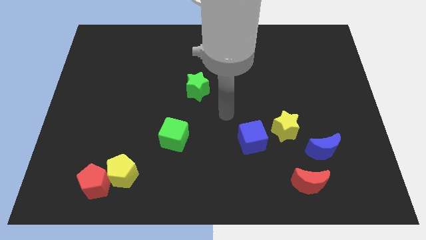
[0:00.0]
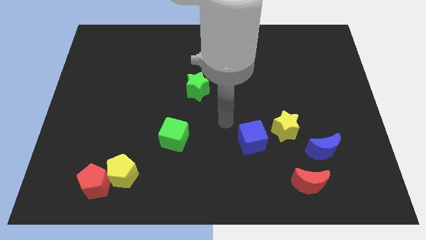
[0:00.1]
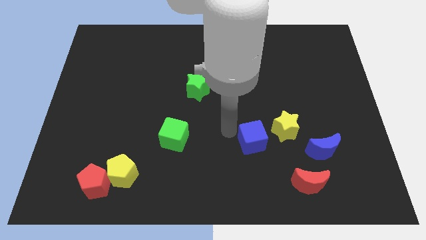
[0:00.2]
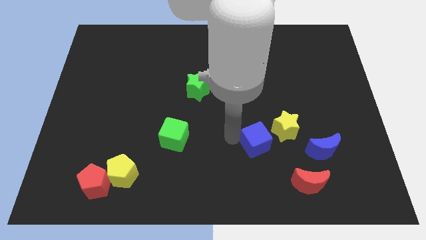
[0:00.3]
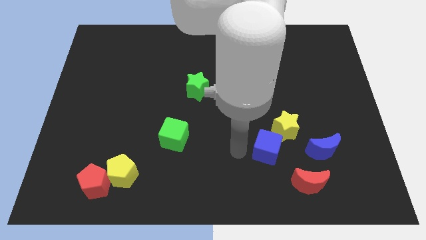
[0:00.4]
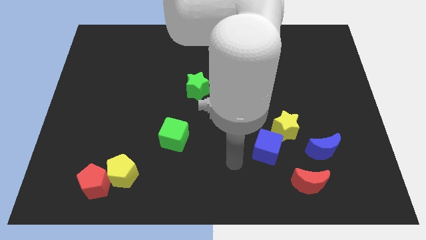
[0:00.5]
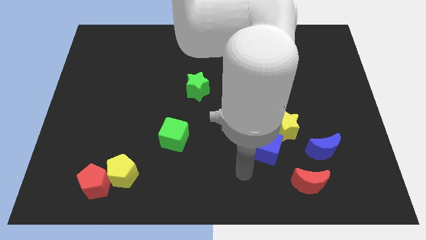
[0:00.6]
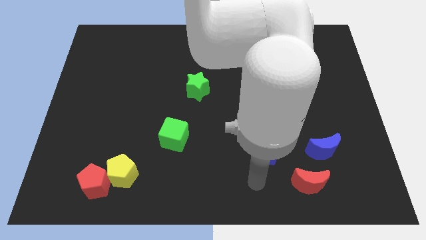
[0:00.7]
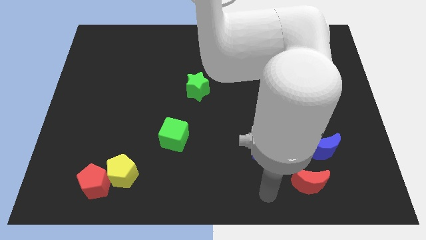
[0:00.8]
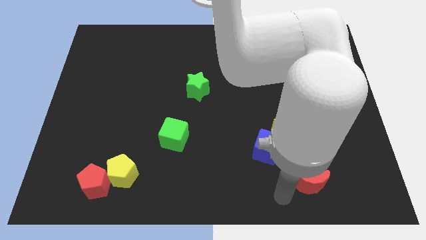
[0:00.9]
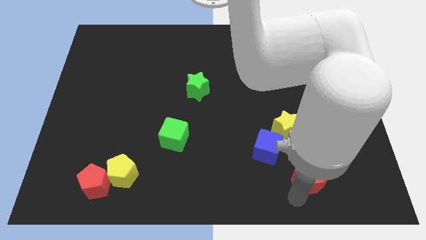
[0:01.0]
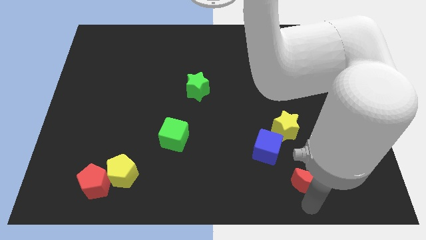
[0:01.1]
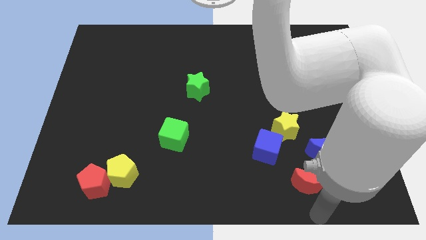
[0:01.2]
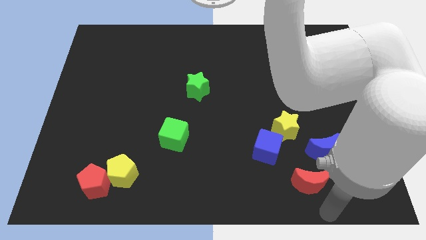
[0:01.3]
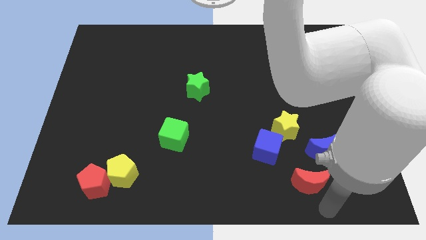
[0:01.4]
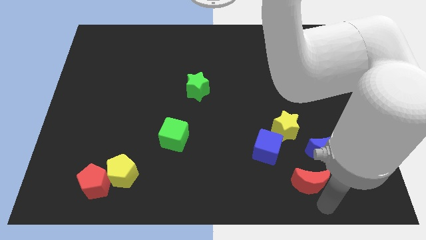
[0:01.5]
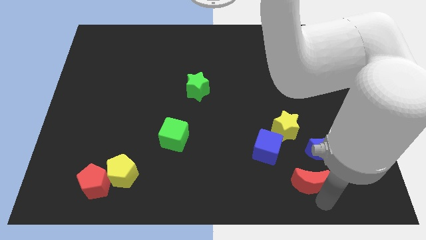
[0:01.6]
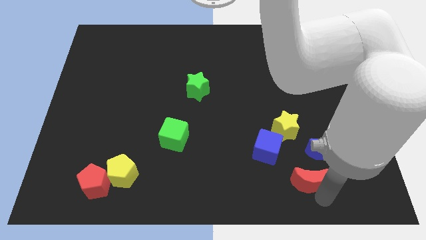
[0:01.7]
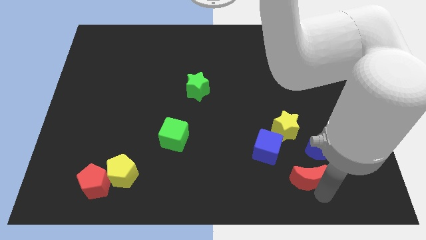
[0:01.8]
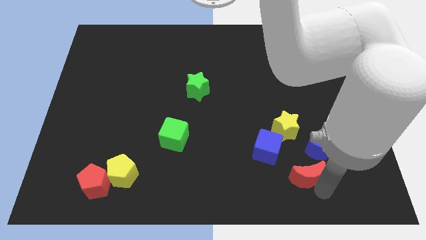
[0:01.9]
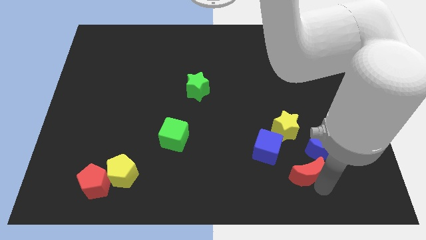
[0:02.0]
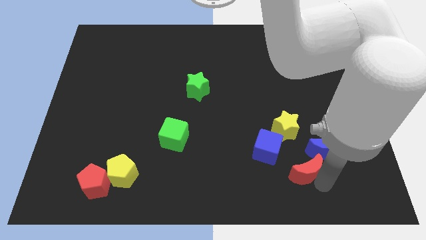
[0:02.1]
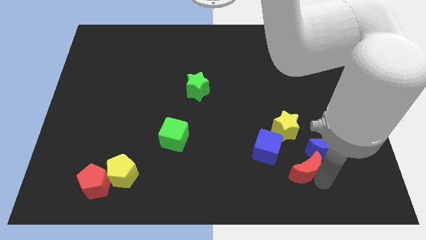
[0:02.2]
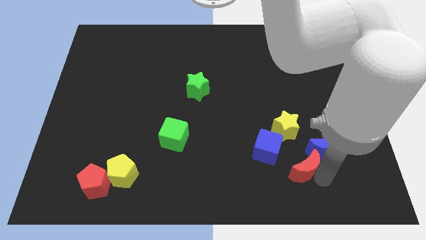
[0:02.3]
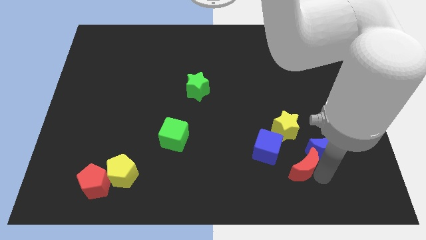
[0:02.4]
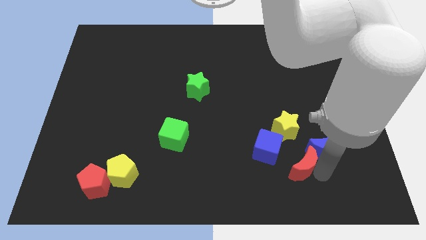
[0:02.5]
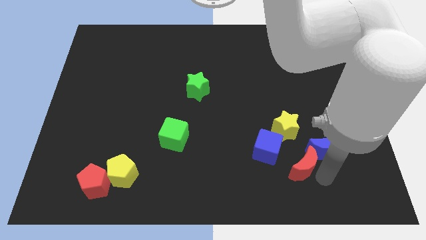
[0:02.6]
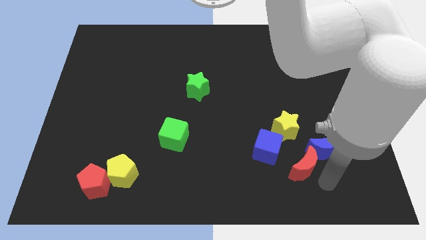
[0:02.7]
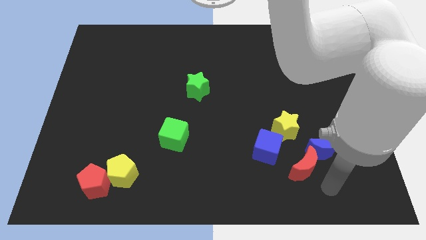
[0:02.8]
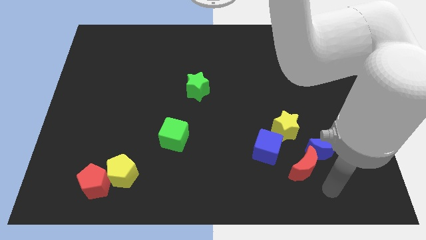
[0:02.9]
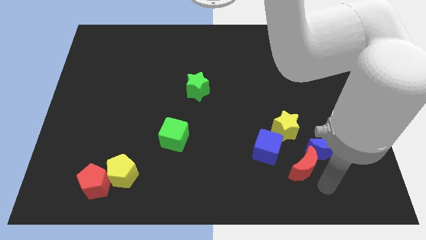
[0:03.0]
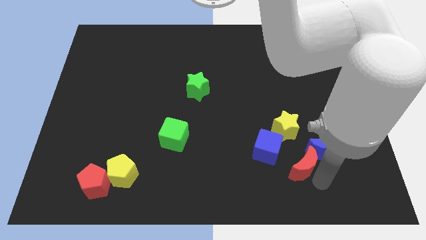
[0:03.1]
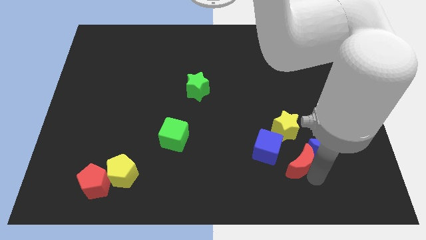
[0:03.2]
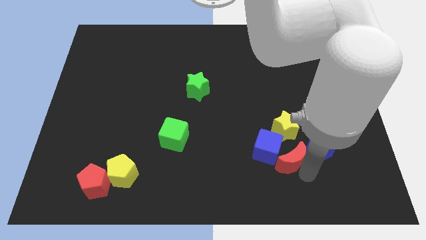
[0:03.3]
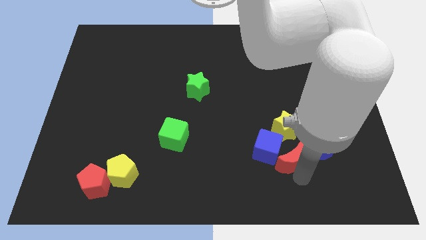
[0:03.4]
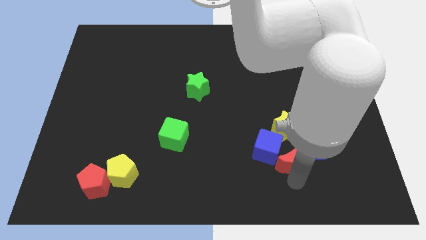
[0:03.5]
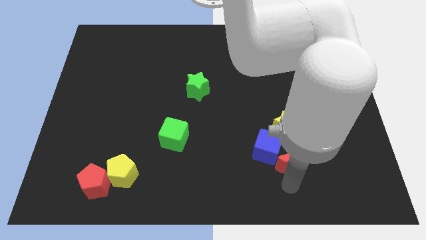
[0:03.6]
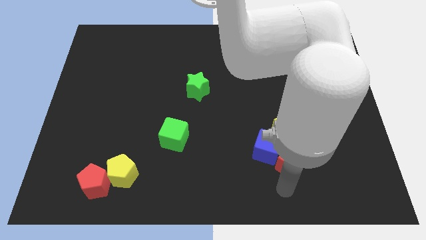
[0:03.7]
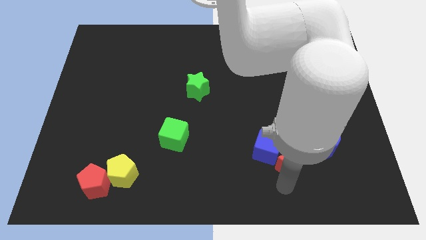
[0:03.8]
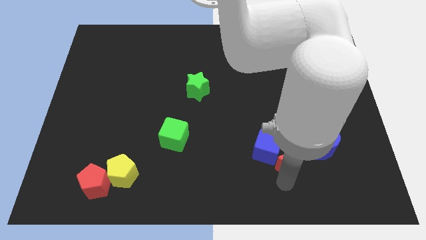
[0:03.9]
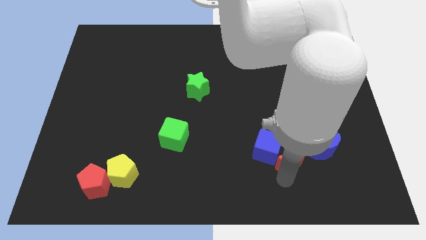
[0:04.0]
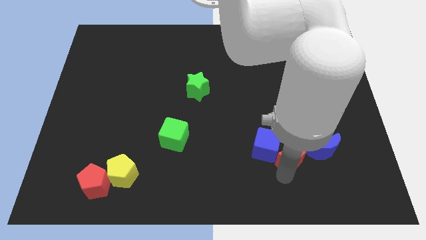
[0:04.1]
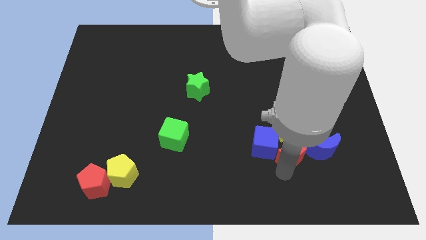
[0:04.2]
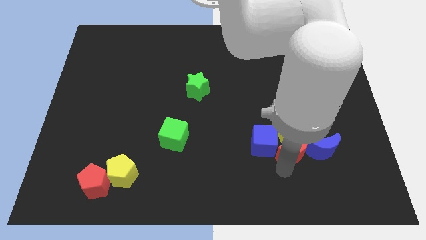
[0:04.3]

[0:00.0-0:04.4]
push the red moon slightly up

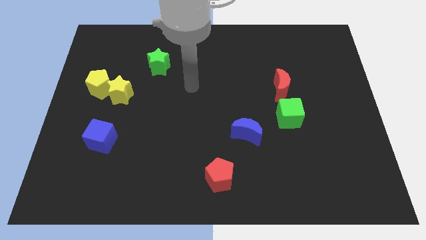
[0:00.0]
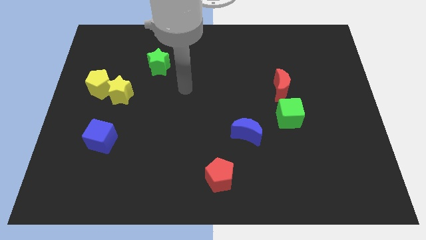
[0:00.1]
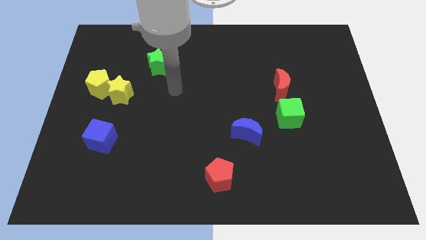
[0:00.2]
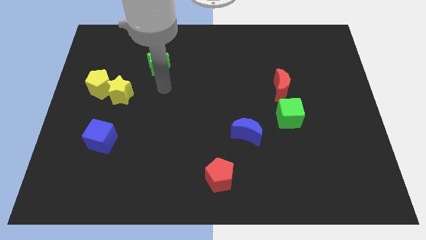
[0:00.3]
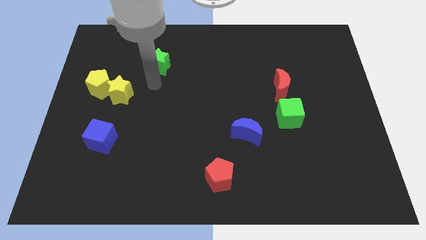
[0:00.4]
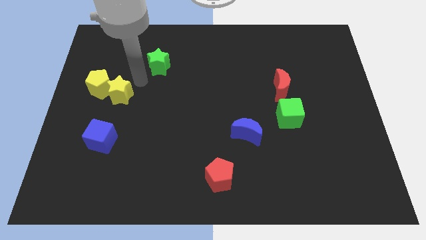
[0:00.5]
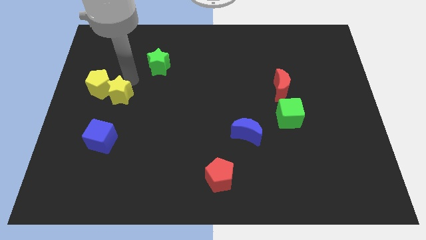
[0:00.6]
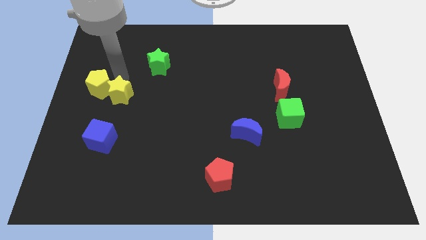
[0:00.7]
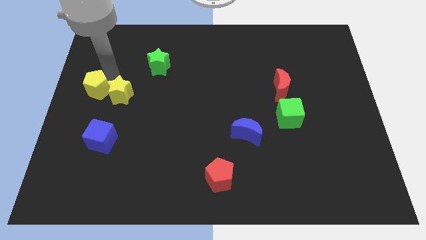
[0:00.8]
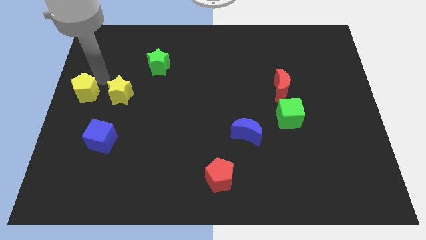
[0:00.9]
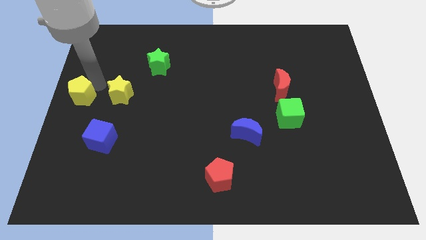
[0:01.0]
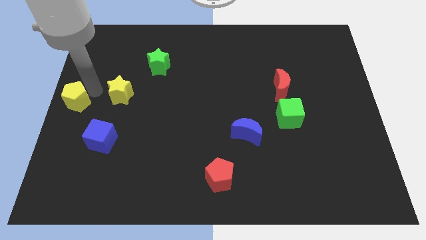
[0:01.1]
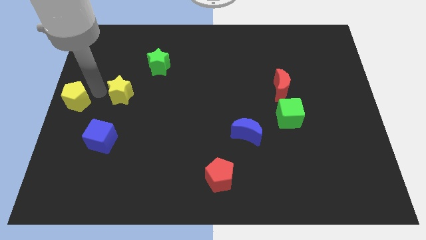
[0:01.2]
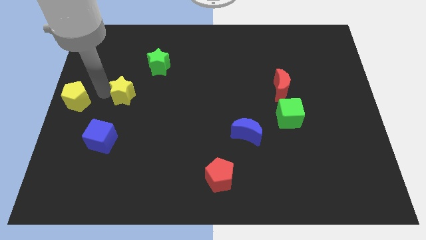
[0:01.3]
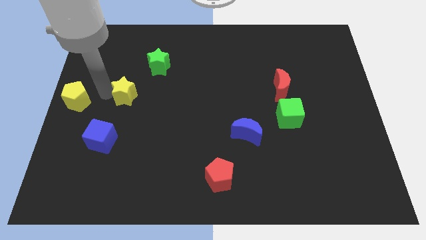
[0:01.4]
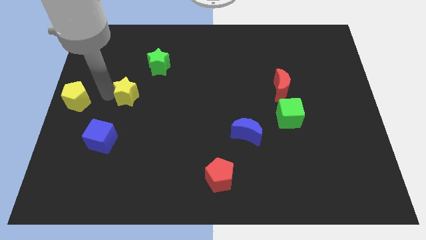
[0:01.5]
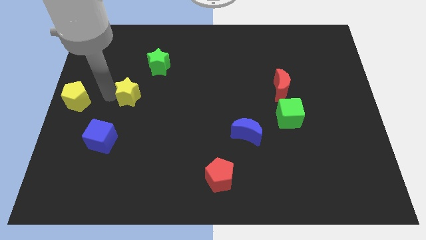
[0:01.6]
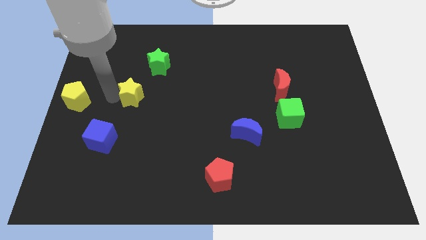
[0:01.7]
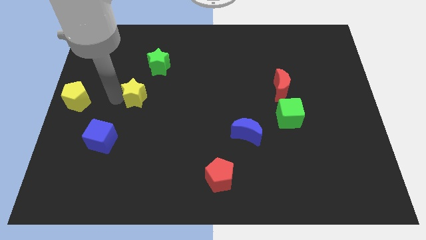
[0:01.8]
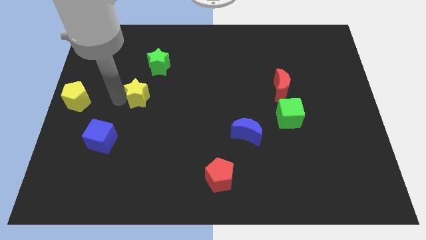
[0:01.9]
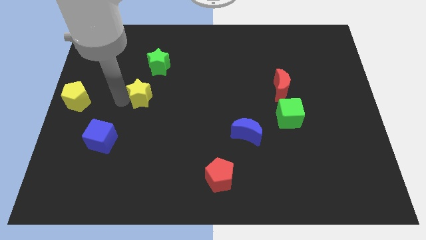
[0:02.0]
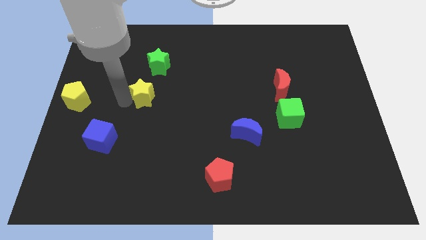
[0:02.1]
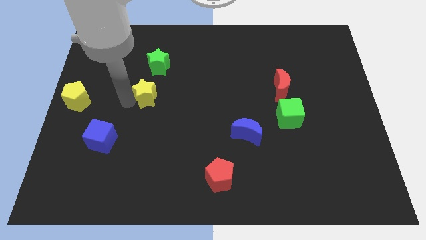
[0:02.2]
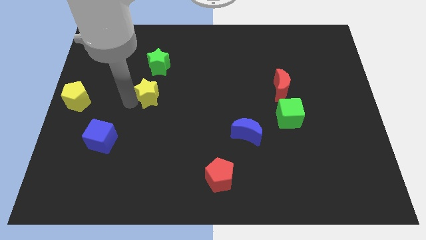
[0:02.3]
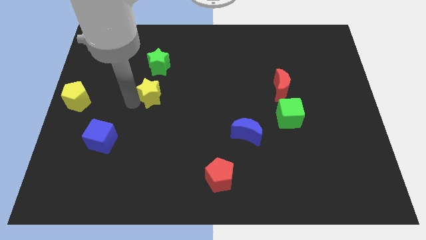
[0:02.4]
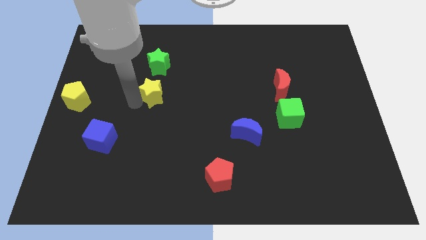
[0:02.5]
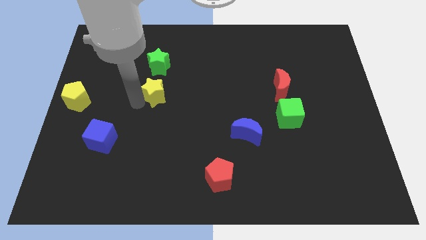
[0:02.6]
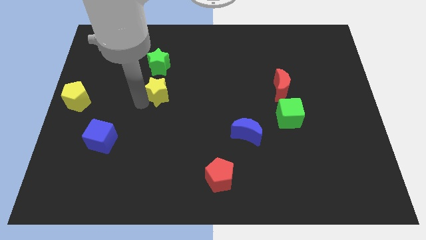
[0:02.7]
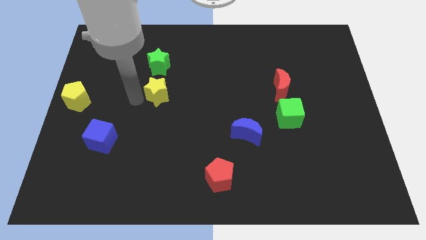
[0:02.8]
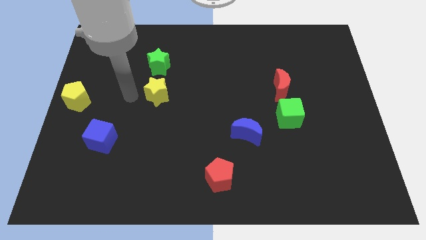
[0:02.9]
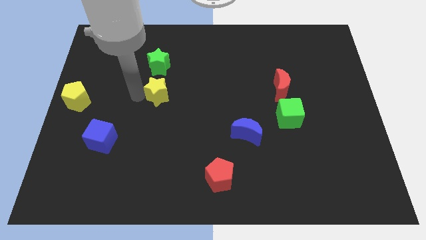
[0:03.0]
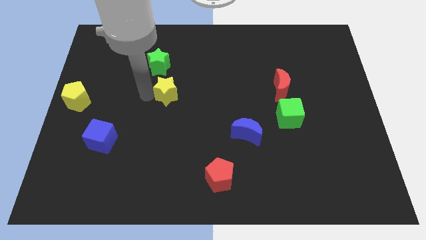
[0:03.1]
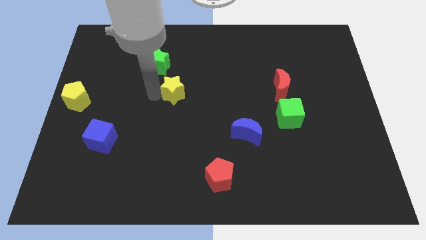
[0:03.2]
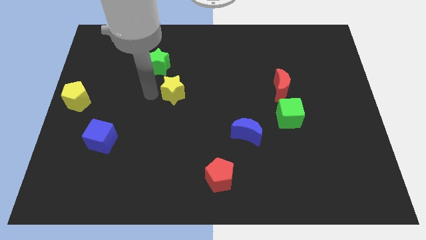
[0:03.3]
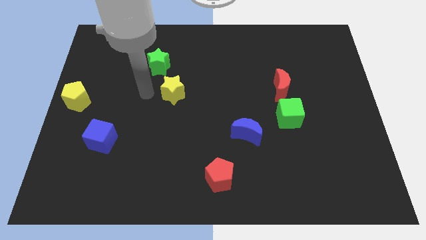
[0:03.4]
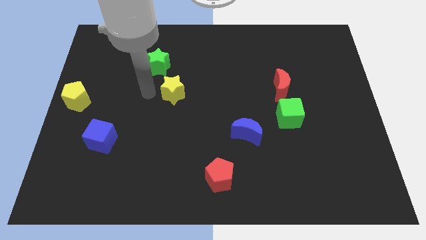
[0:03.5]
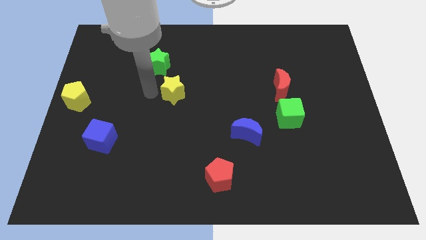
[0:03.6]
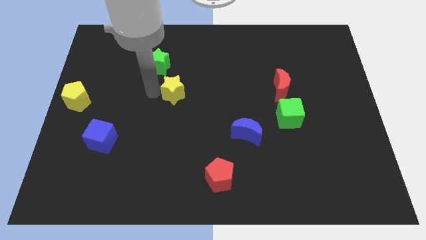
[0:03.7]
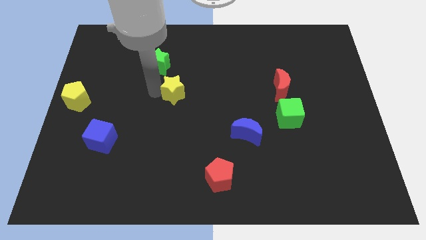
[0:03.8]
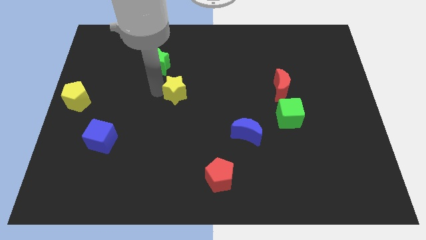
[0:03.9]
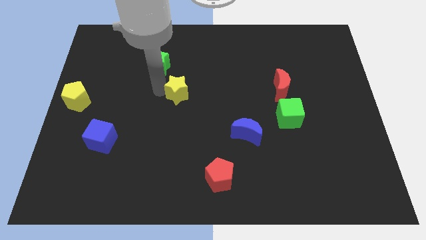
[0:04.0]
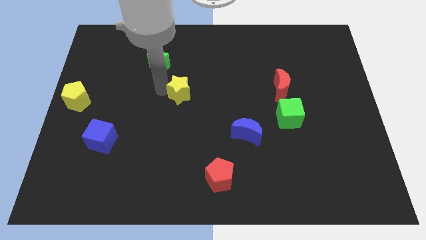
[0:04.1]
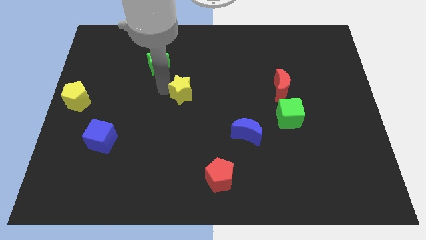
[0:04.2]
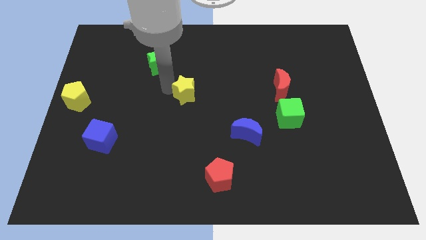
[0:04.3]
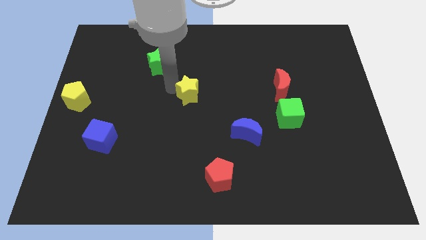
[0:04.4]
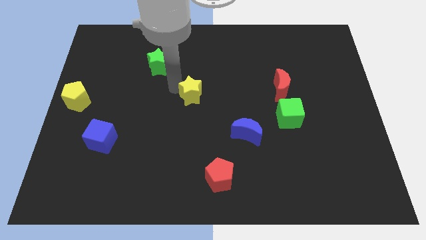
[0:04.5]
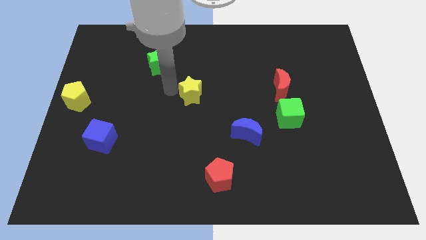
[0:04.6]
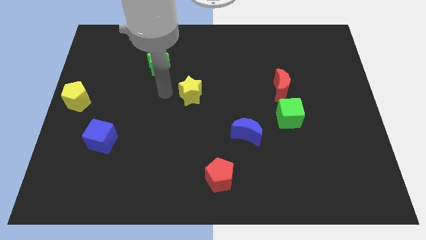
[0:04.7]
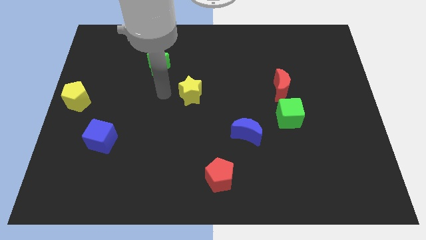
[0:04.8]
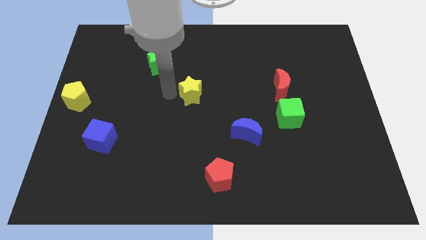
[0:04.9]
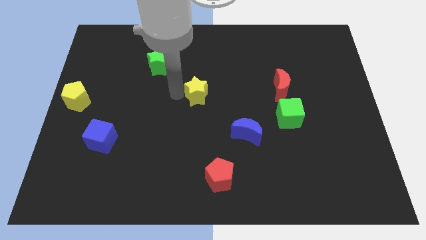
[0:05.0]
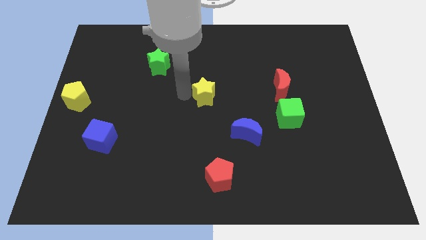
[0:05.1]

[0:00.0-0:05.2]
move the yellow star to the right
